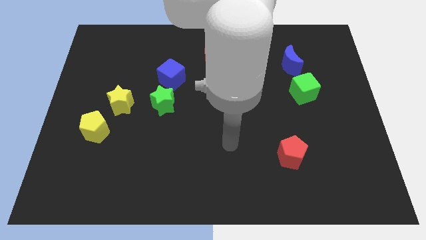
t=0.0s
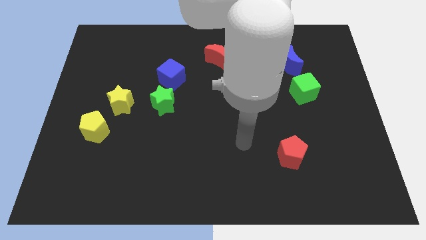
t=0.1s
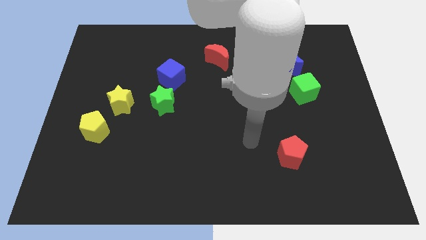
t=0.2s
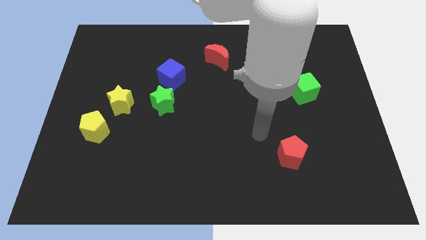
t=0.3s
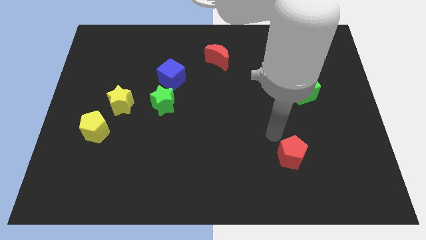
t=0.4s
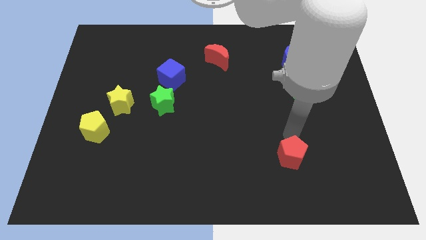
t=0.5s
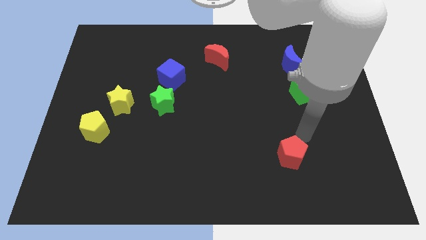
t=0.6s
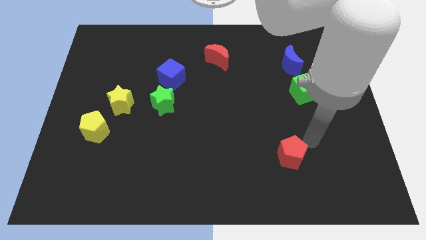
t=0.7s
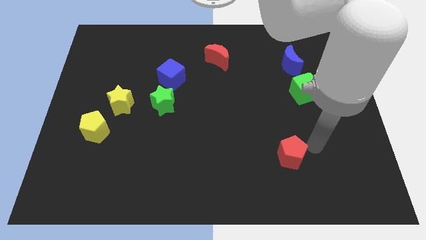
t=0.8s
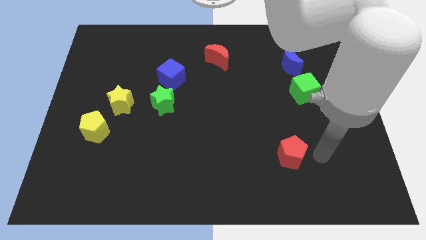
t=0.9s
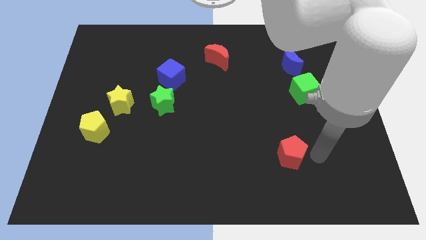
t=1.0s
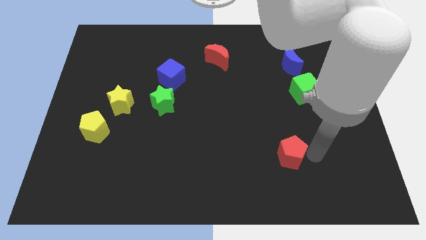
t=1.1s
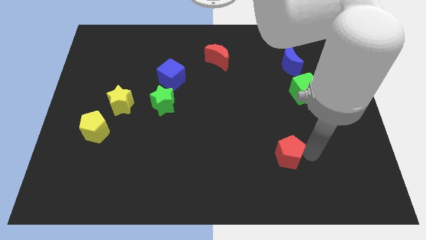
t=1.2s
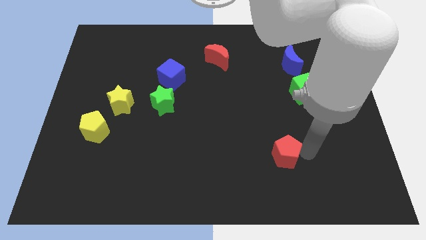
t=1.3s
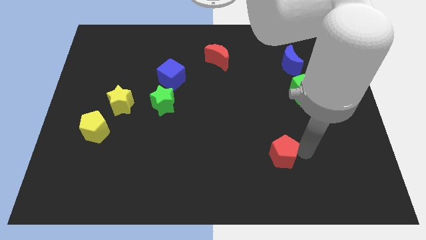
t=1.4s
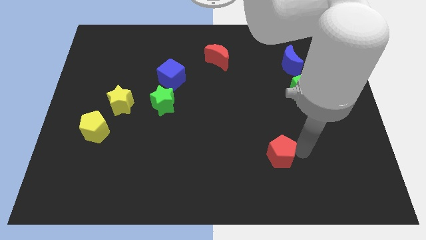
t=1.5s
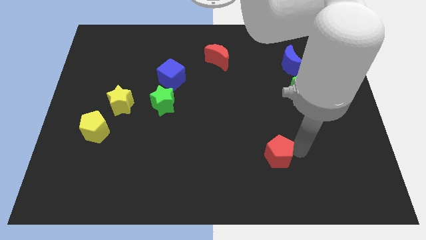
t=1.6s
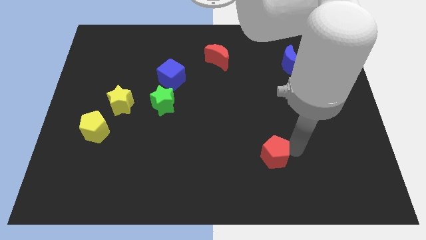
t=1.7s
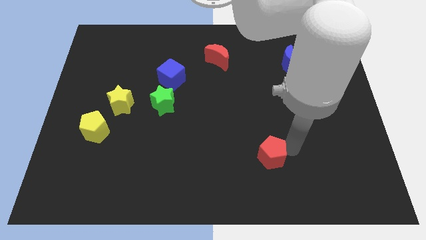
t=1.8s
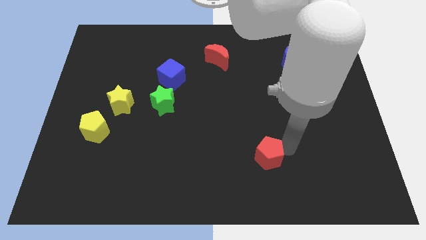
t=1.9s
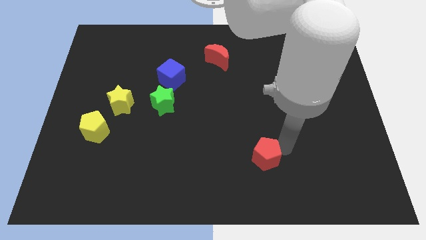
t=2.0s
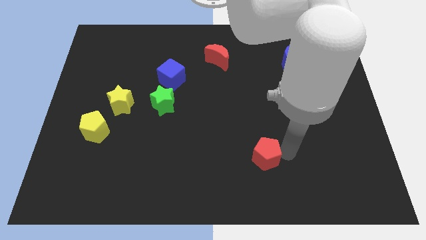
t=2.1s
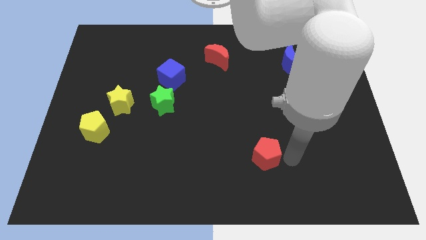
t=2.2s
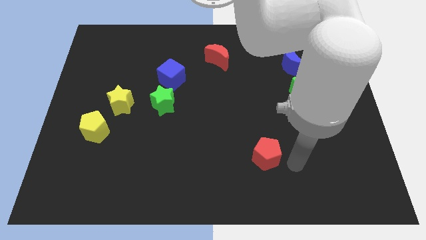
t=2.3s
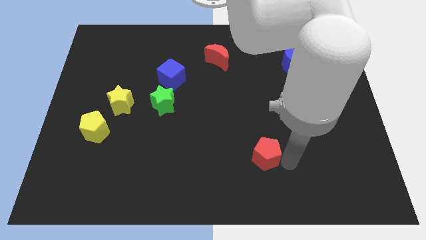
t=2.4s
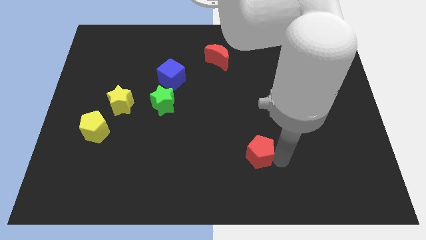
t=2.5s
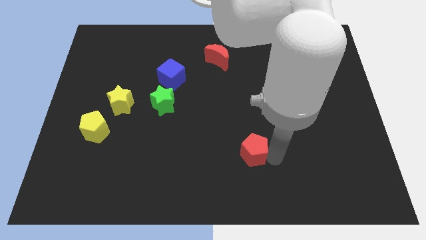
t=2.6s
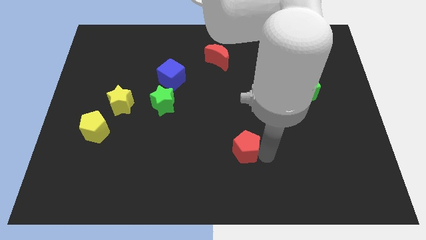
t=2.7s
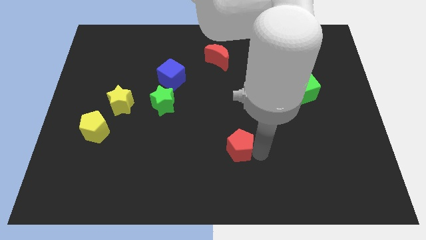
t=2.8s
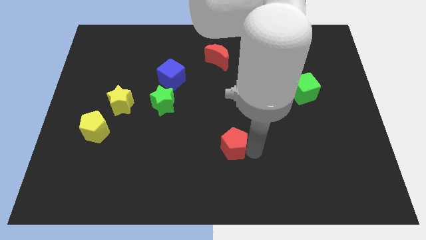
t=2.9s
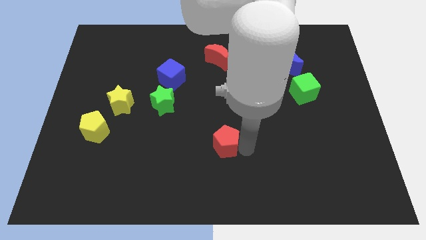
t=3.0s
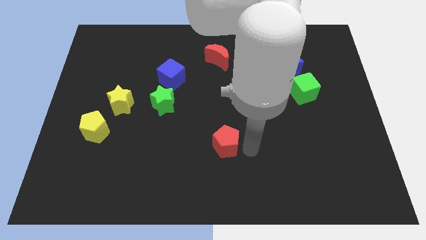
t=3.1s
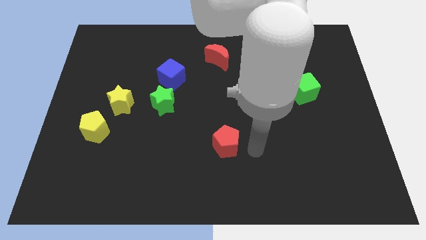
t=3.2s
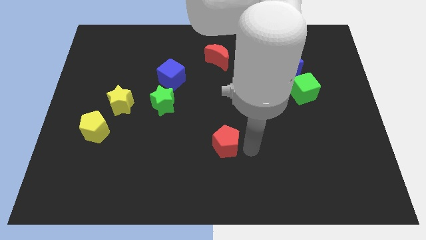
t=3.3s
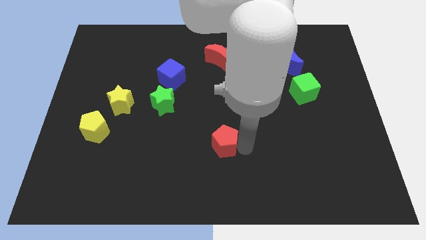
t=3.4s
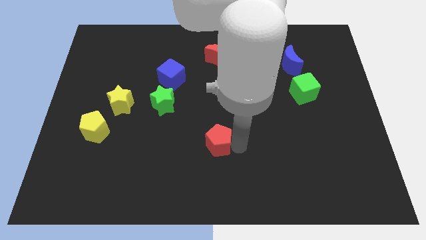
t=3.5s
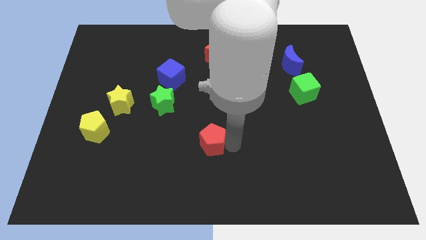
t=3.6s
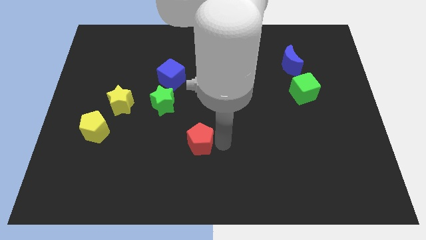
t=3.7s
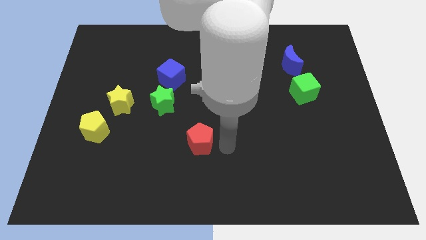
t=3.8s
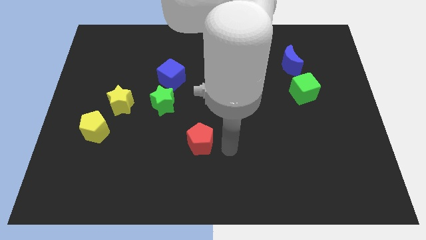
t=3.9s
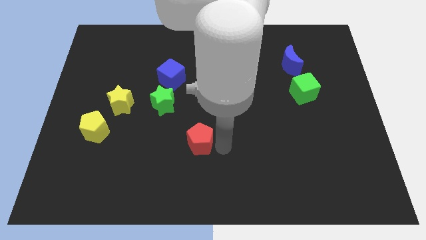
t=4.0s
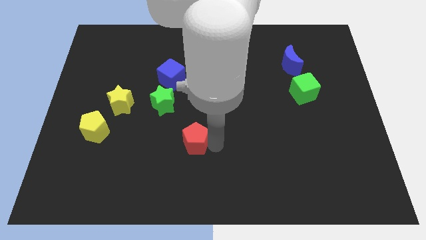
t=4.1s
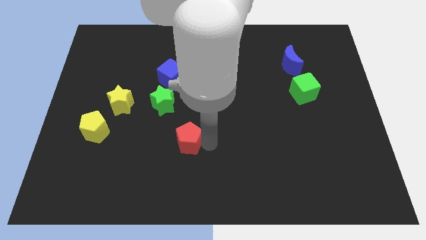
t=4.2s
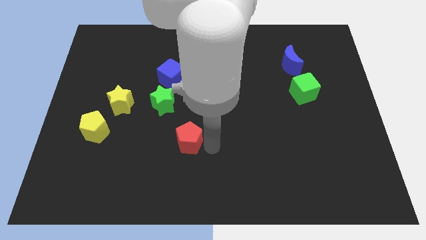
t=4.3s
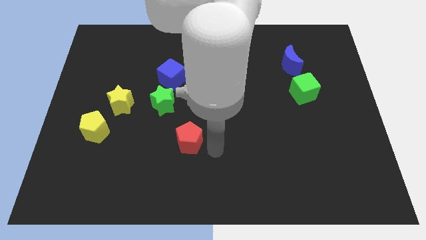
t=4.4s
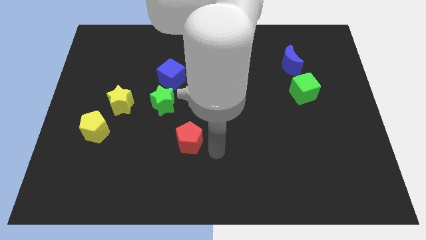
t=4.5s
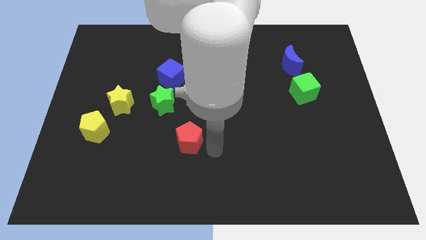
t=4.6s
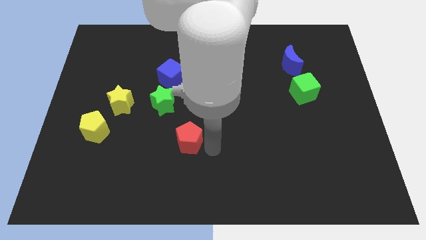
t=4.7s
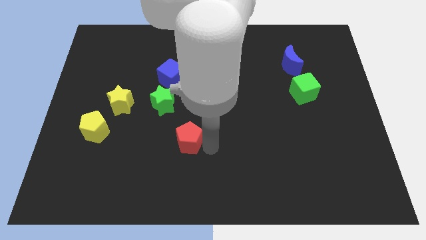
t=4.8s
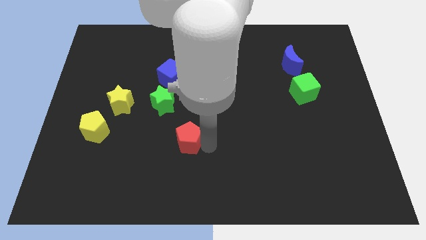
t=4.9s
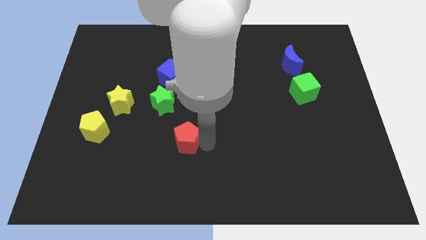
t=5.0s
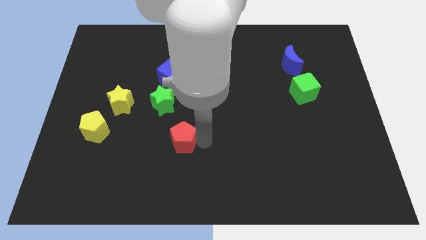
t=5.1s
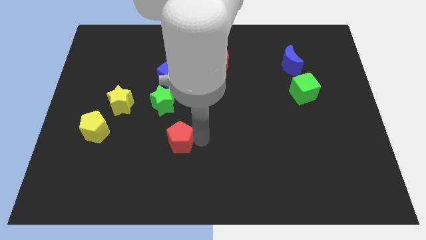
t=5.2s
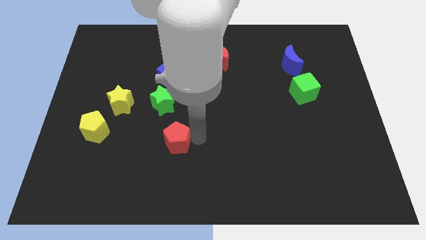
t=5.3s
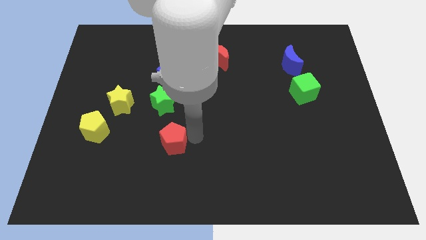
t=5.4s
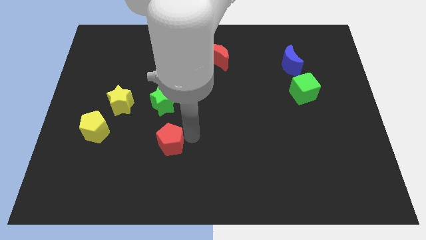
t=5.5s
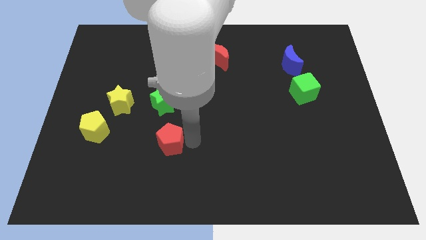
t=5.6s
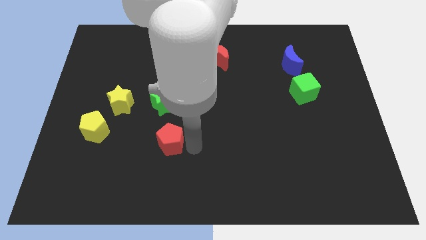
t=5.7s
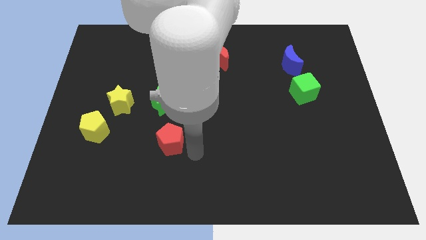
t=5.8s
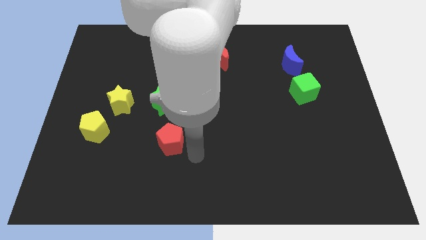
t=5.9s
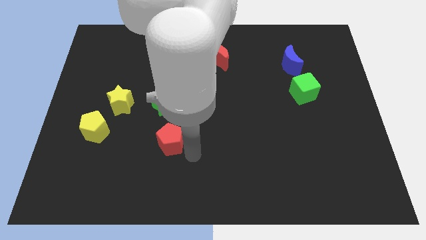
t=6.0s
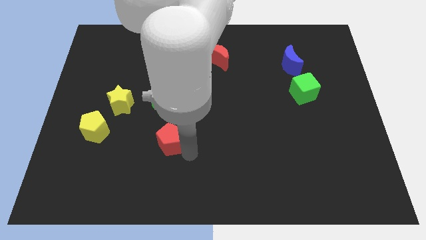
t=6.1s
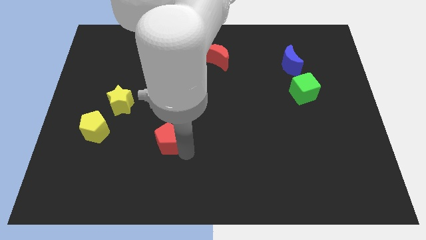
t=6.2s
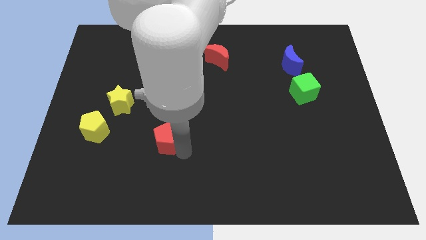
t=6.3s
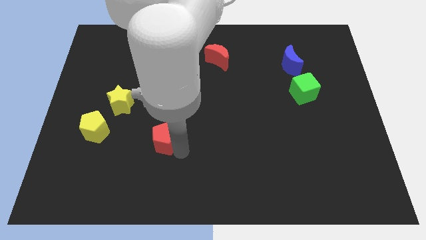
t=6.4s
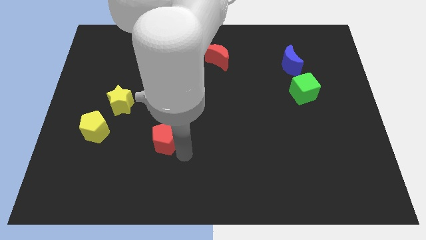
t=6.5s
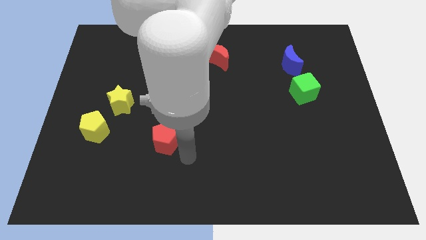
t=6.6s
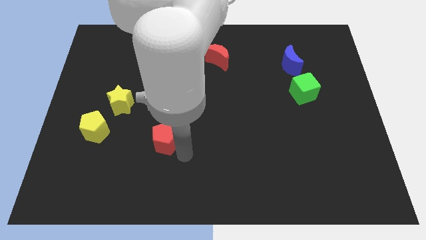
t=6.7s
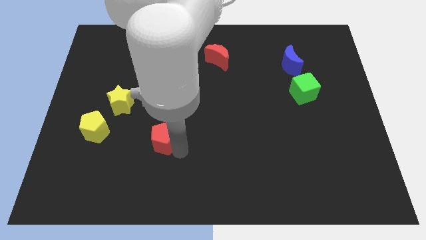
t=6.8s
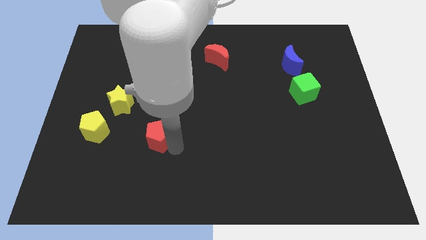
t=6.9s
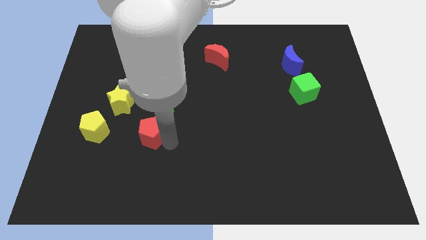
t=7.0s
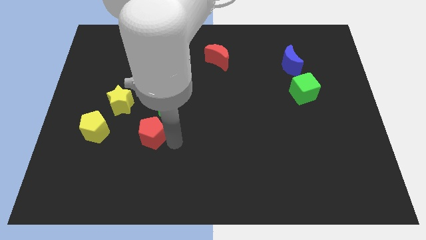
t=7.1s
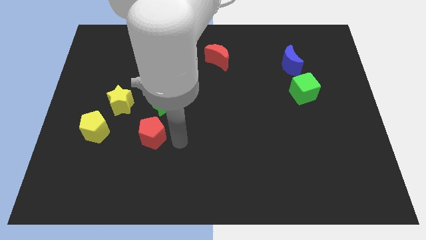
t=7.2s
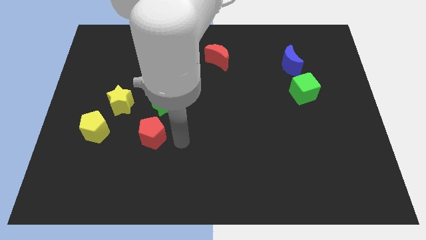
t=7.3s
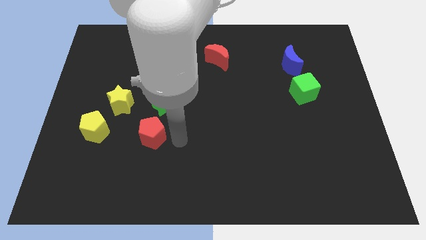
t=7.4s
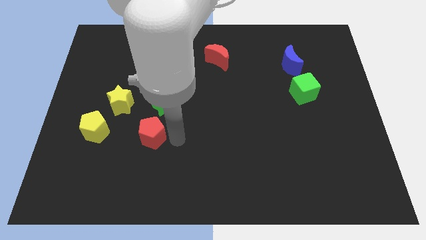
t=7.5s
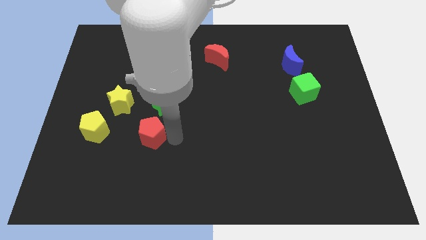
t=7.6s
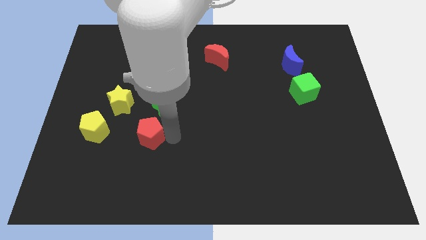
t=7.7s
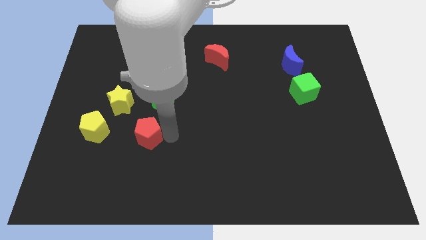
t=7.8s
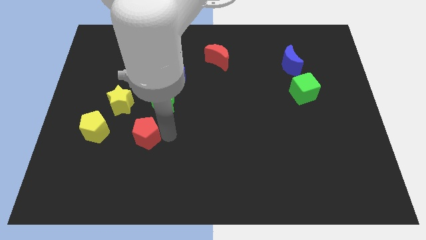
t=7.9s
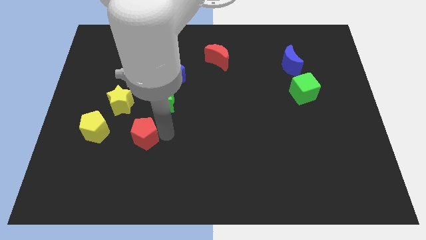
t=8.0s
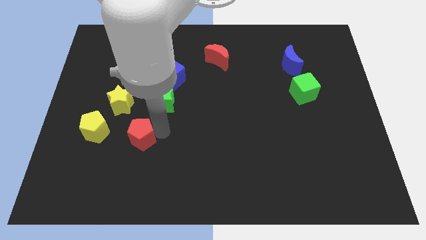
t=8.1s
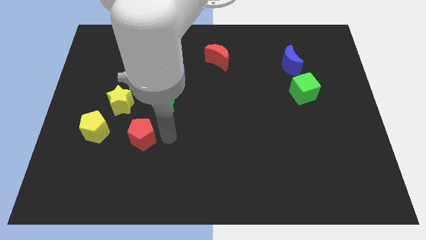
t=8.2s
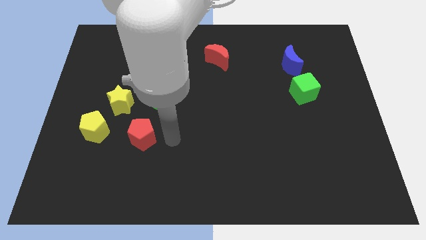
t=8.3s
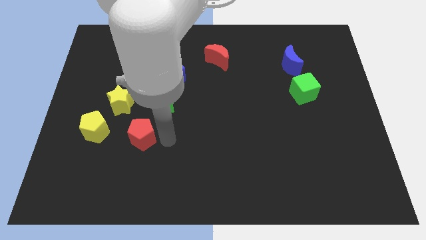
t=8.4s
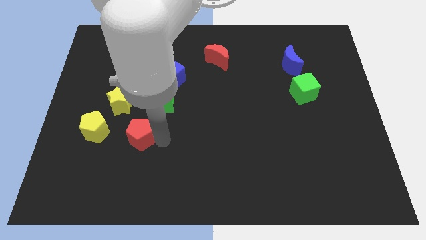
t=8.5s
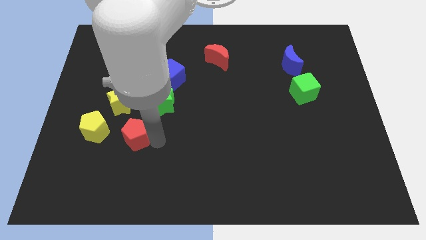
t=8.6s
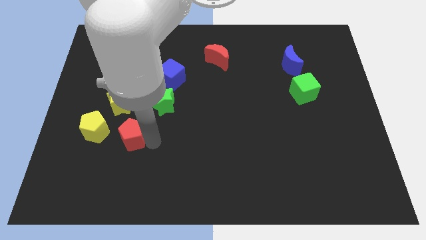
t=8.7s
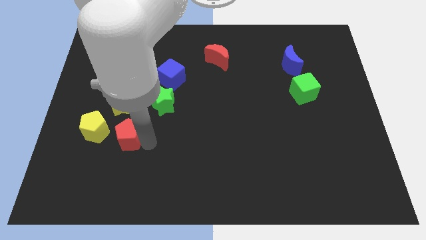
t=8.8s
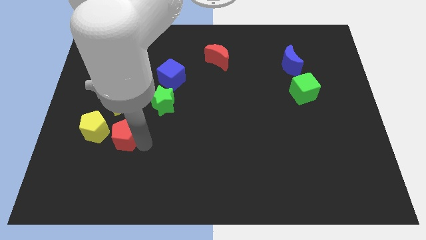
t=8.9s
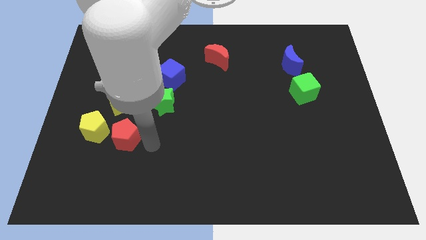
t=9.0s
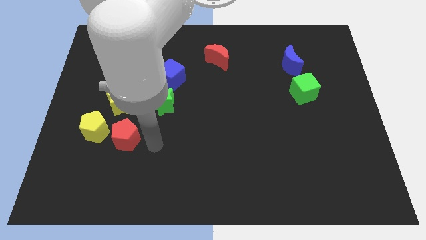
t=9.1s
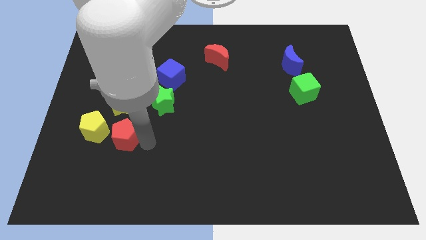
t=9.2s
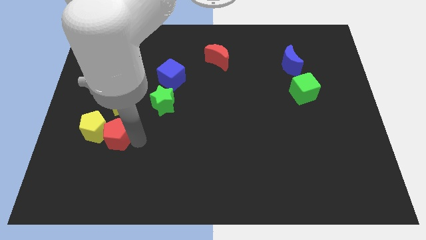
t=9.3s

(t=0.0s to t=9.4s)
move the red pentagon to the yellow pentagon
